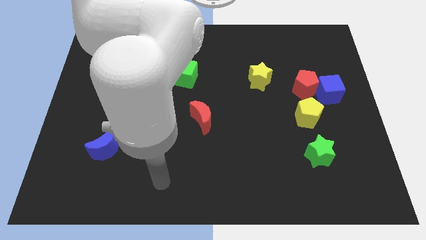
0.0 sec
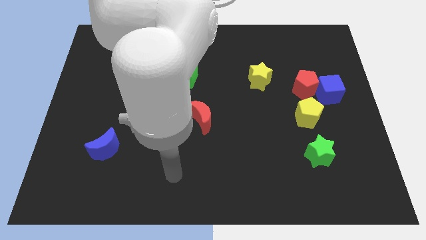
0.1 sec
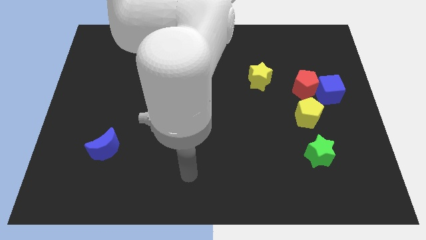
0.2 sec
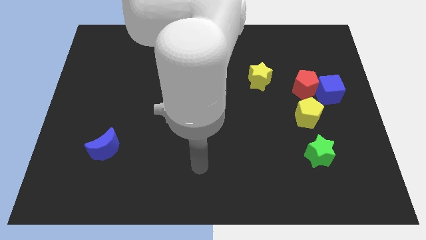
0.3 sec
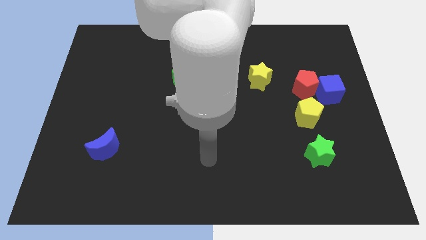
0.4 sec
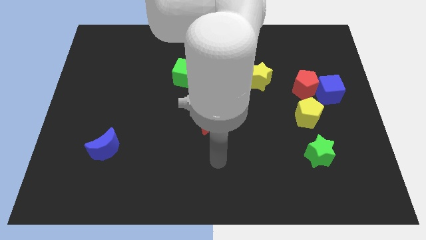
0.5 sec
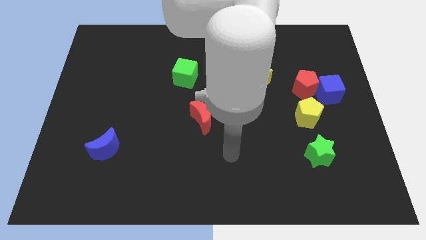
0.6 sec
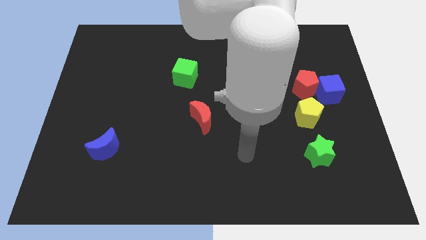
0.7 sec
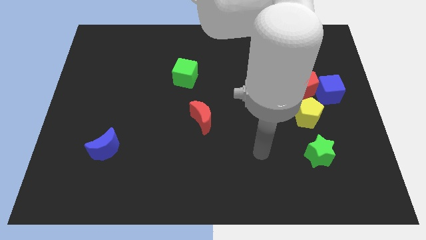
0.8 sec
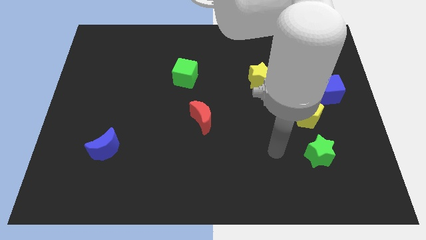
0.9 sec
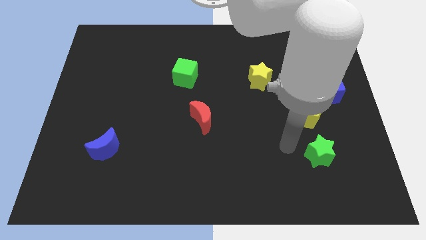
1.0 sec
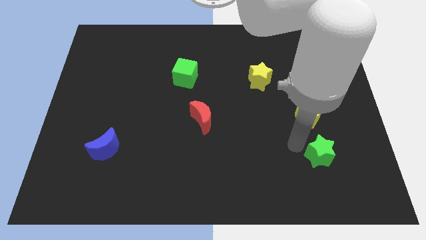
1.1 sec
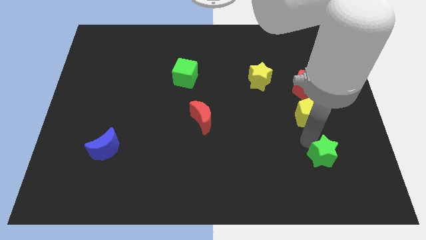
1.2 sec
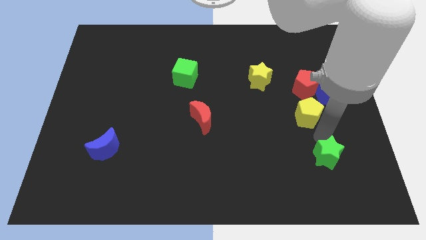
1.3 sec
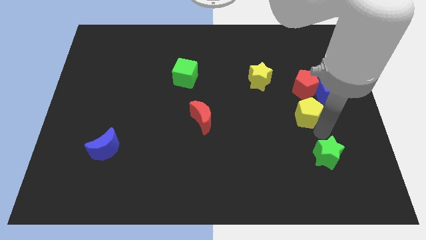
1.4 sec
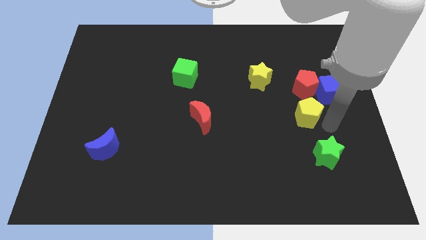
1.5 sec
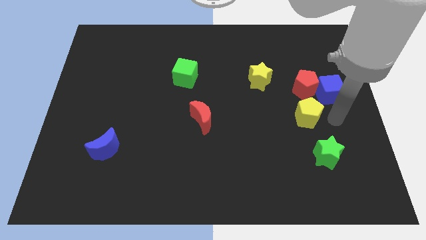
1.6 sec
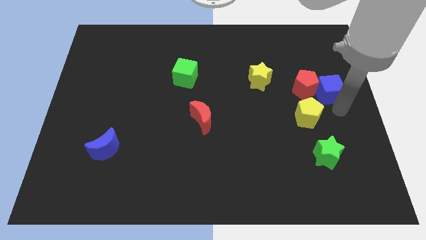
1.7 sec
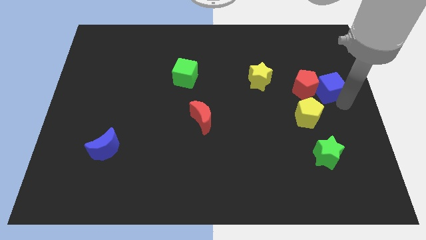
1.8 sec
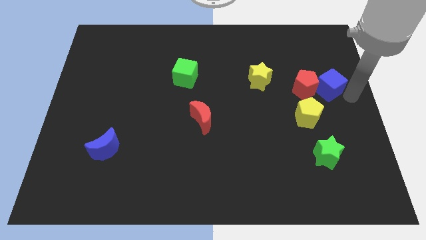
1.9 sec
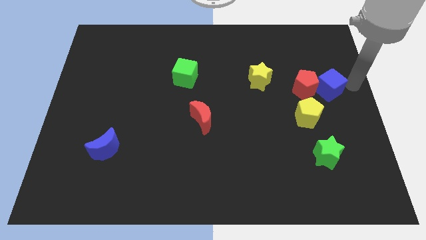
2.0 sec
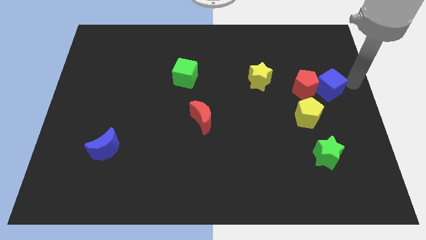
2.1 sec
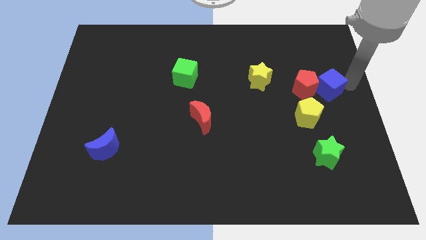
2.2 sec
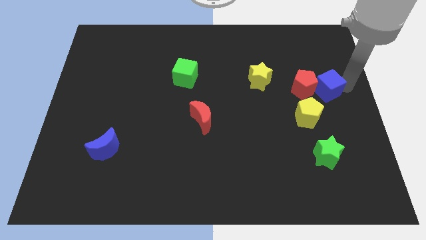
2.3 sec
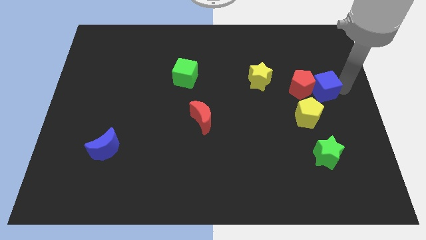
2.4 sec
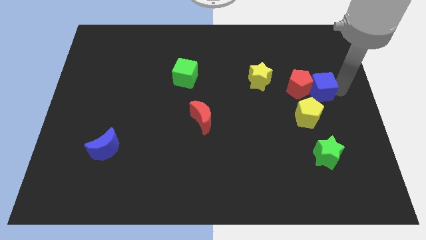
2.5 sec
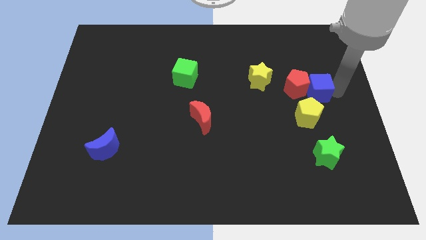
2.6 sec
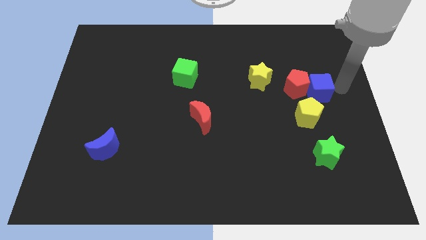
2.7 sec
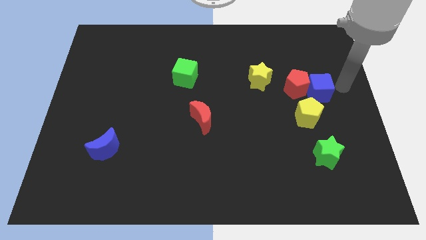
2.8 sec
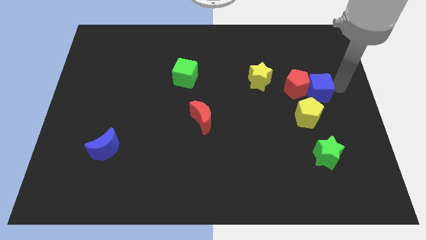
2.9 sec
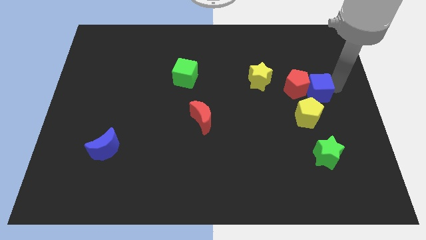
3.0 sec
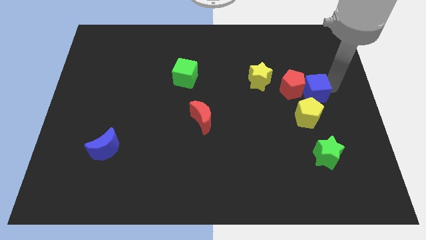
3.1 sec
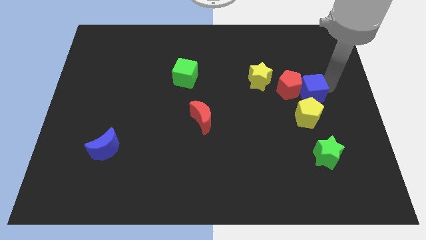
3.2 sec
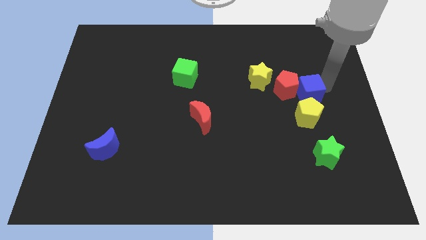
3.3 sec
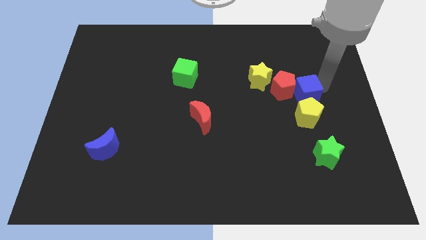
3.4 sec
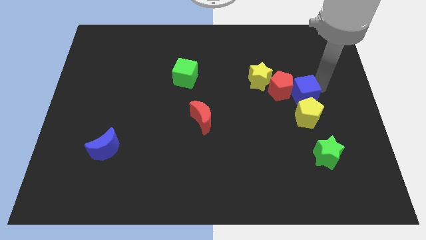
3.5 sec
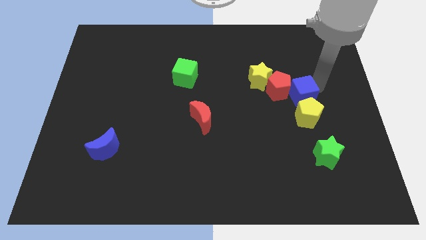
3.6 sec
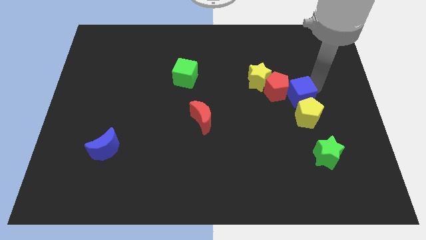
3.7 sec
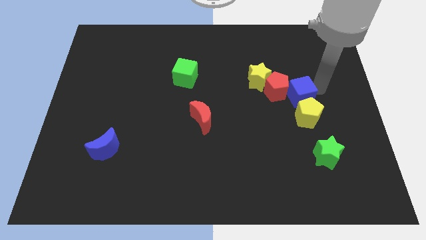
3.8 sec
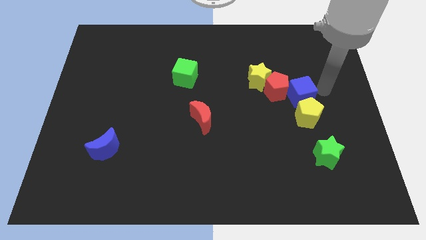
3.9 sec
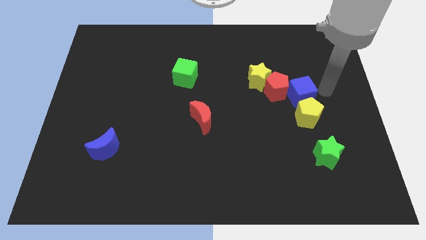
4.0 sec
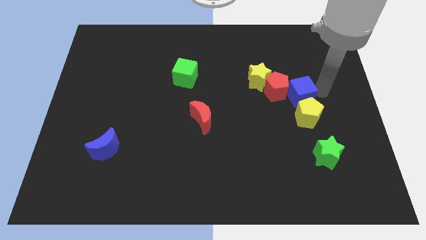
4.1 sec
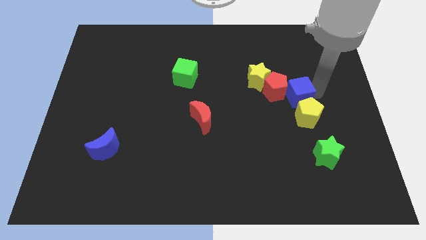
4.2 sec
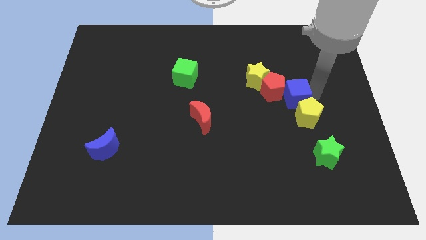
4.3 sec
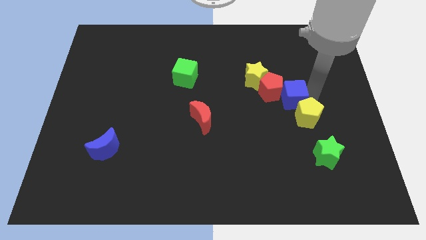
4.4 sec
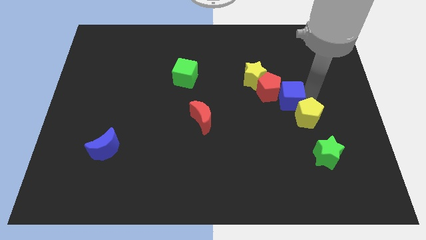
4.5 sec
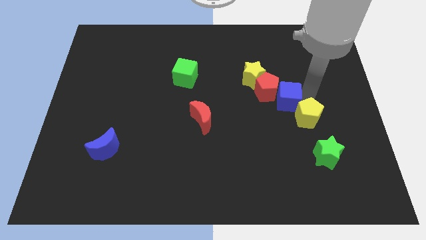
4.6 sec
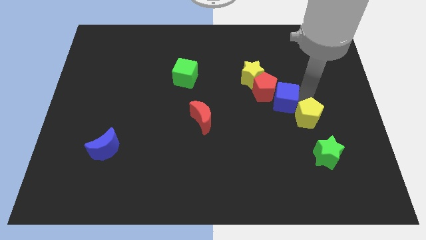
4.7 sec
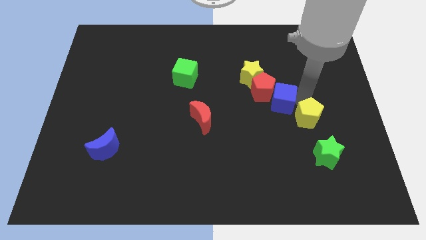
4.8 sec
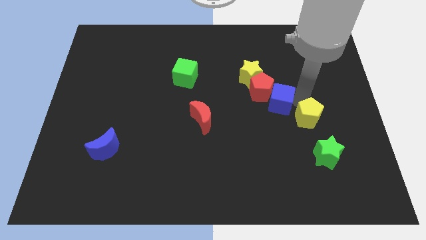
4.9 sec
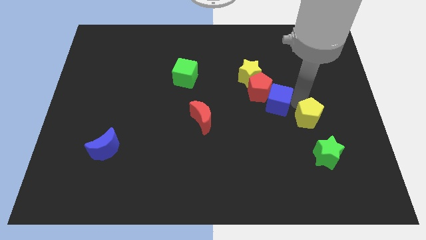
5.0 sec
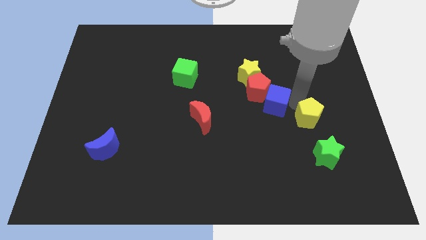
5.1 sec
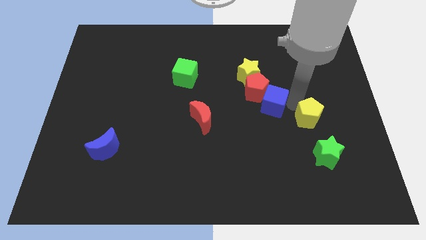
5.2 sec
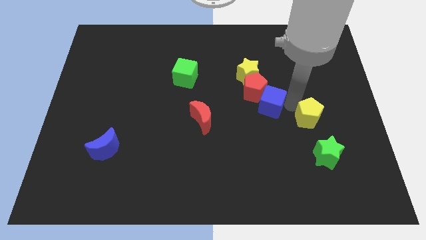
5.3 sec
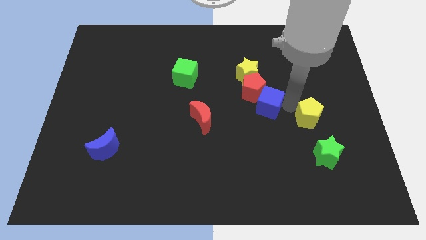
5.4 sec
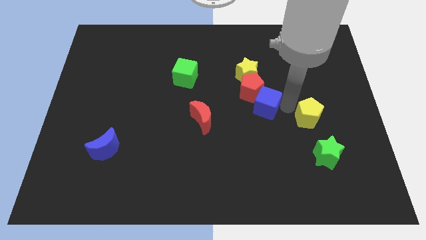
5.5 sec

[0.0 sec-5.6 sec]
push the blue cube to the center of the board

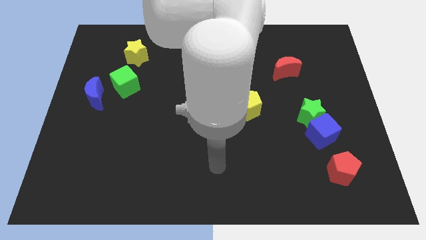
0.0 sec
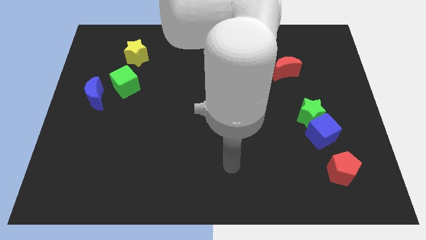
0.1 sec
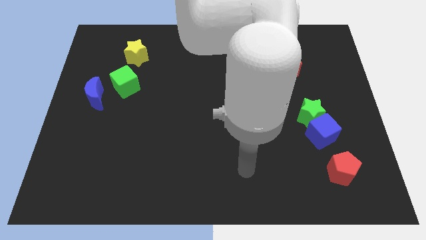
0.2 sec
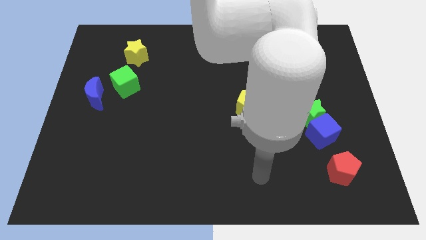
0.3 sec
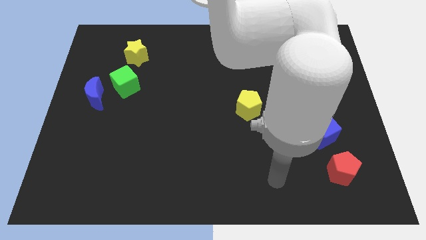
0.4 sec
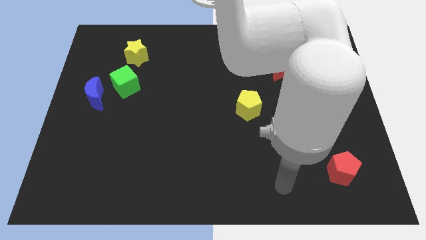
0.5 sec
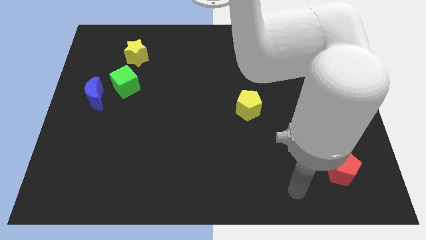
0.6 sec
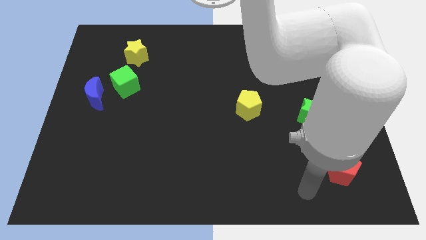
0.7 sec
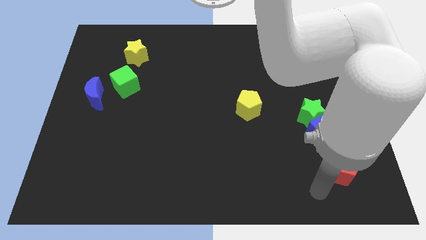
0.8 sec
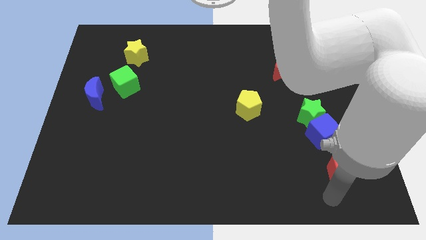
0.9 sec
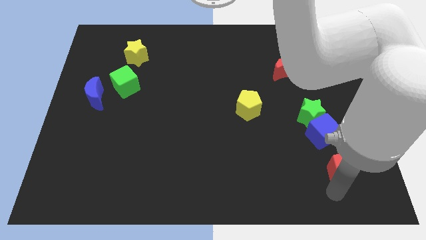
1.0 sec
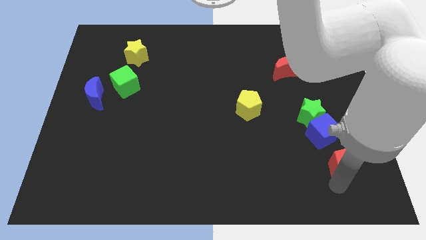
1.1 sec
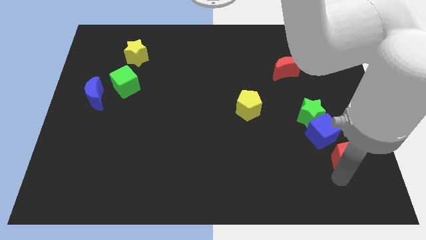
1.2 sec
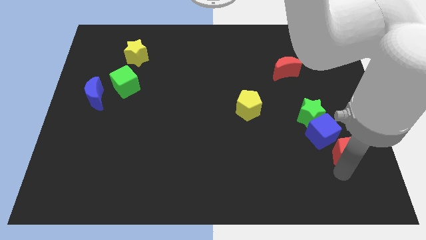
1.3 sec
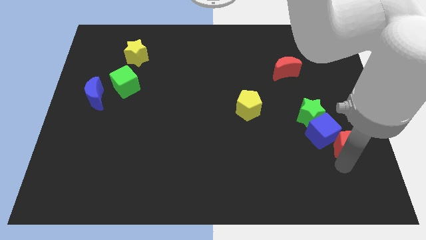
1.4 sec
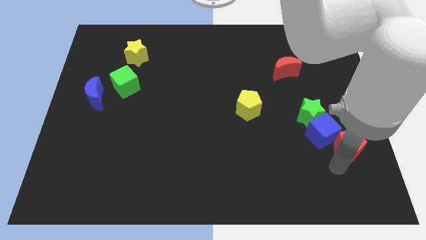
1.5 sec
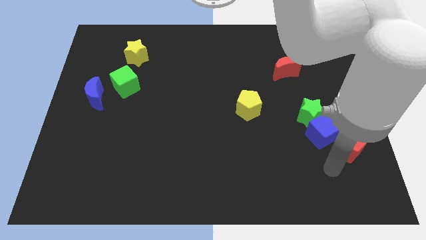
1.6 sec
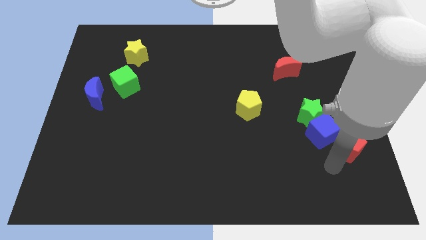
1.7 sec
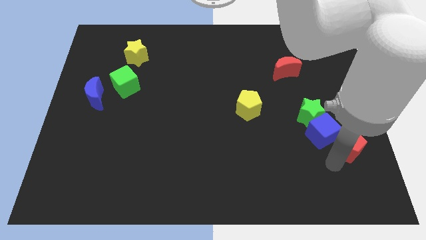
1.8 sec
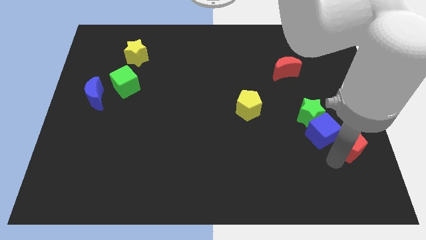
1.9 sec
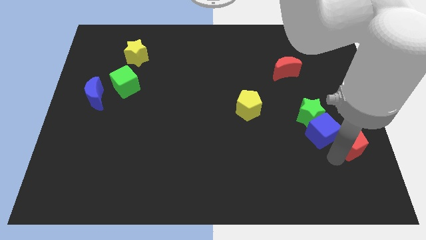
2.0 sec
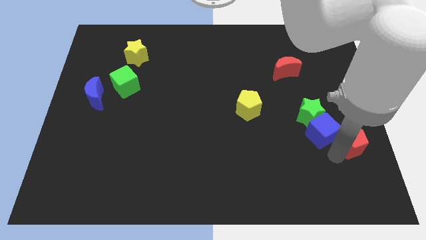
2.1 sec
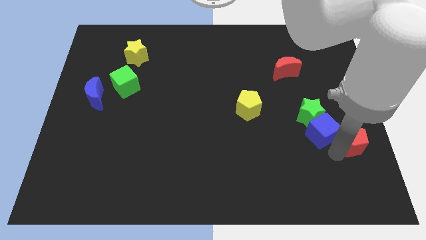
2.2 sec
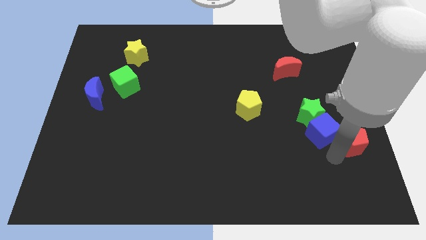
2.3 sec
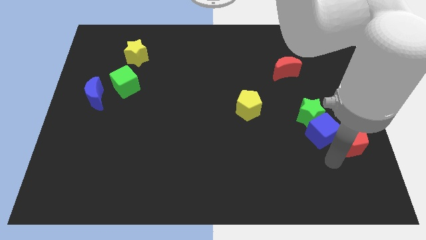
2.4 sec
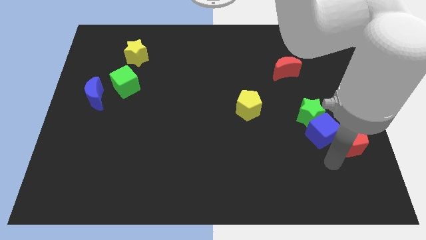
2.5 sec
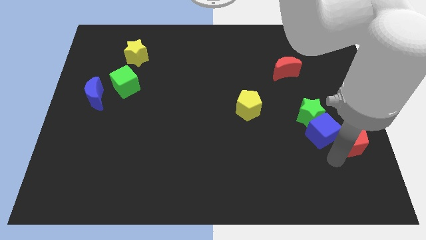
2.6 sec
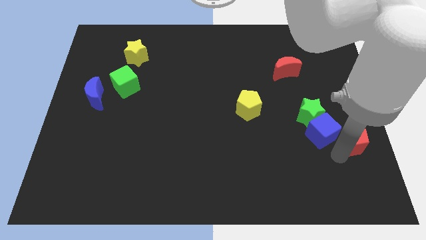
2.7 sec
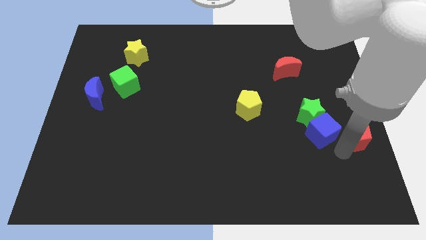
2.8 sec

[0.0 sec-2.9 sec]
slide the red pentagon to the center right
